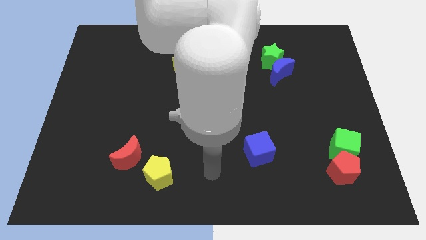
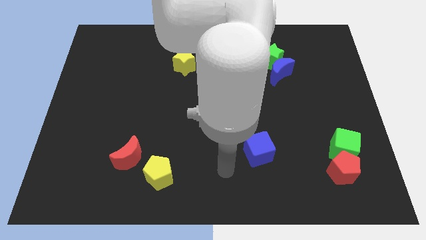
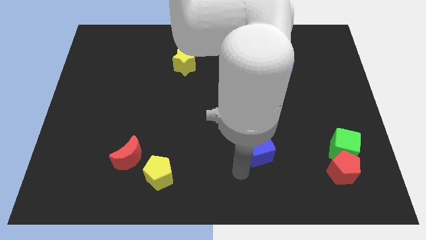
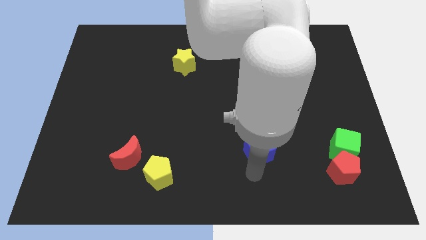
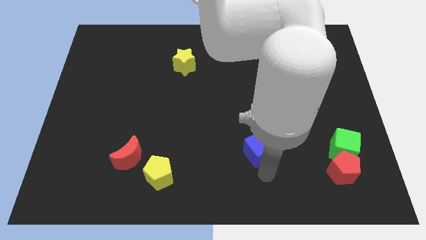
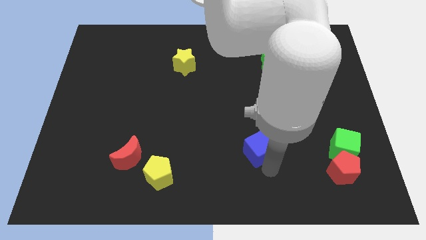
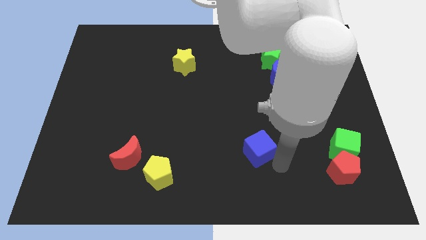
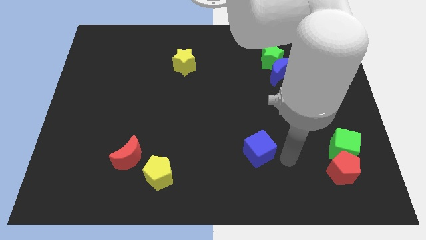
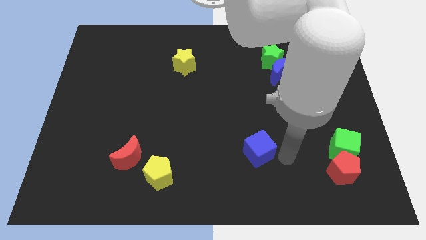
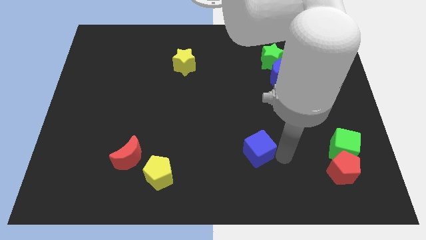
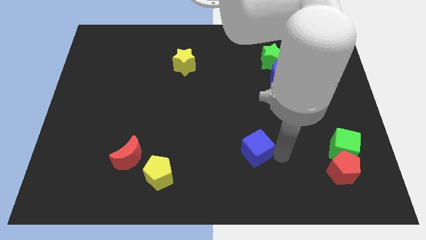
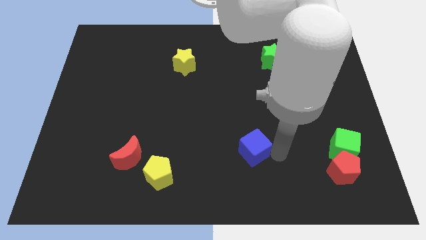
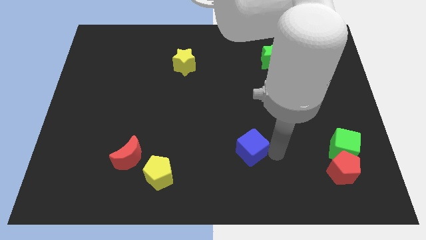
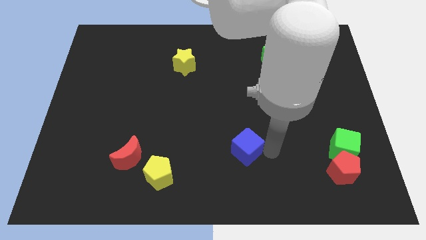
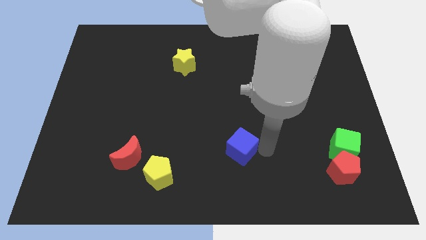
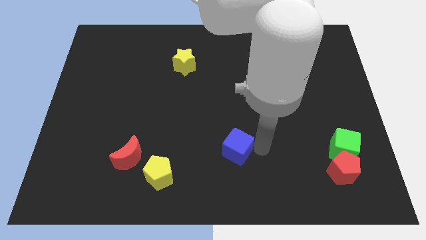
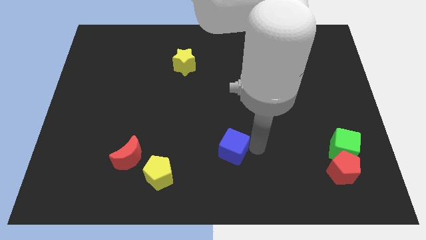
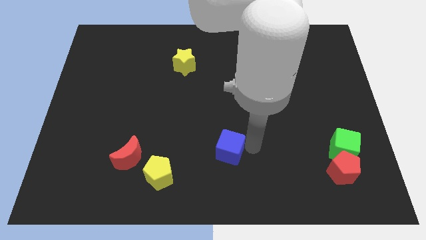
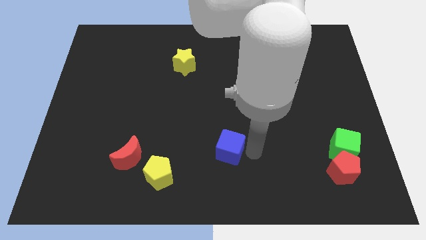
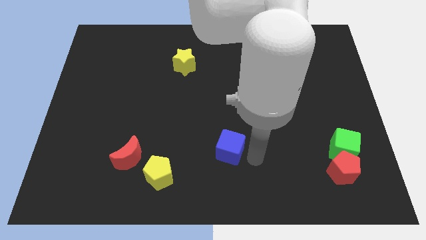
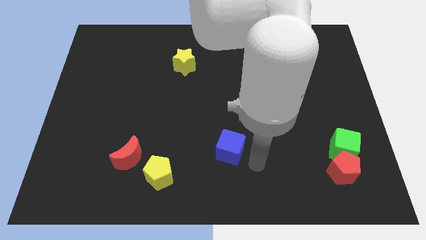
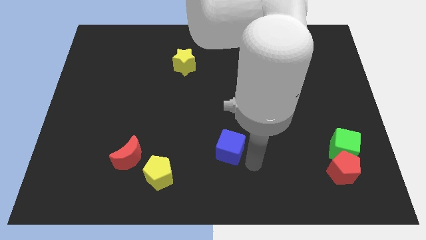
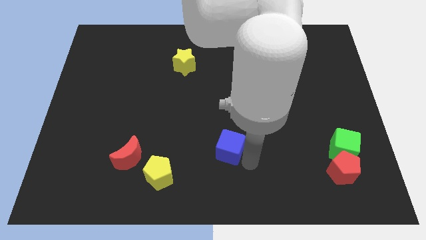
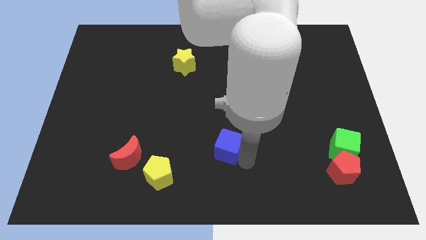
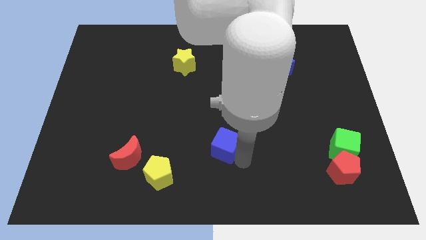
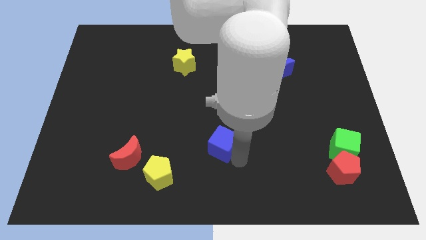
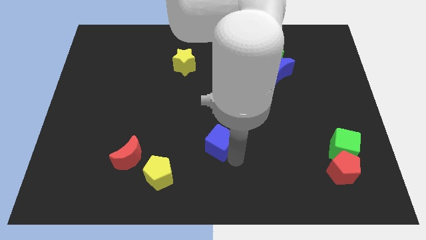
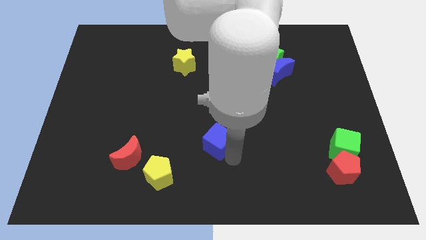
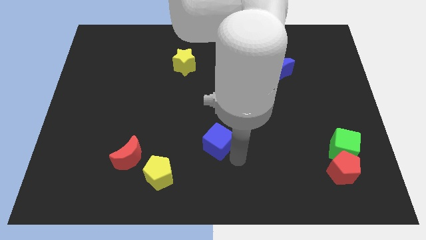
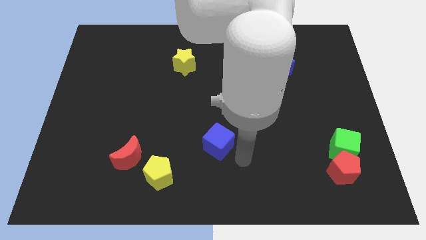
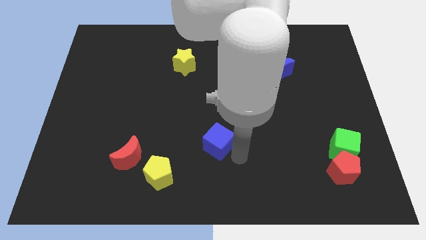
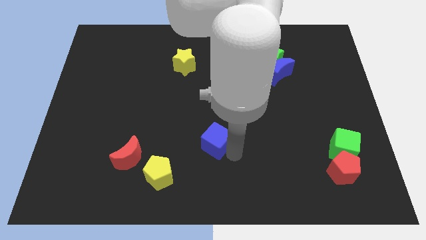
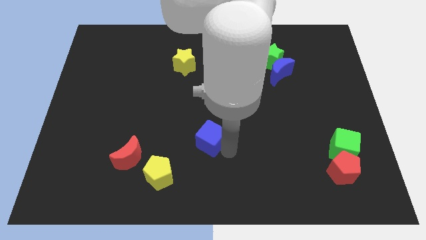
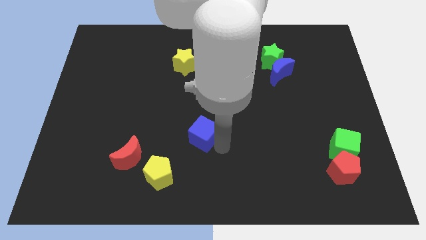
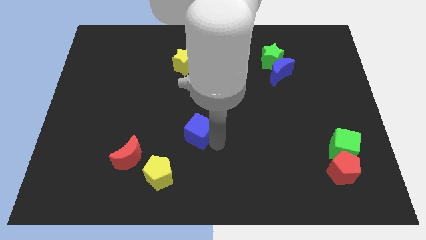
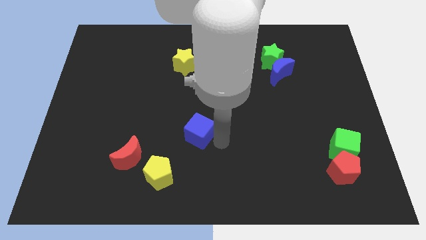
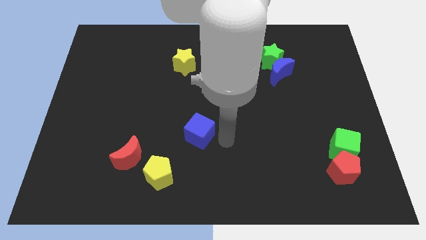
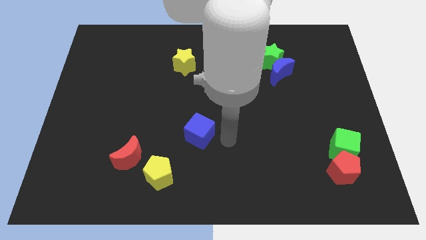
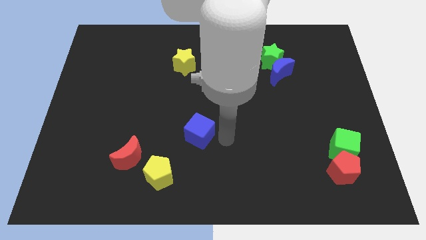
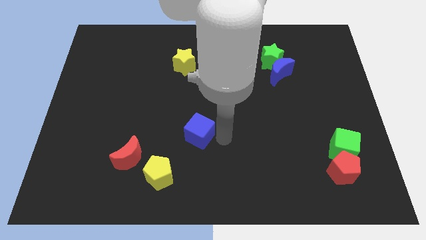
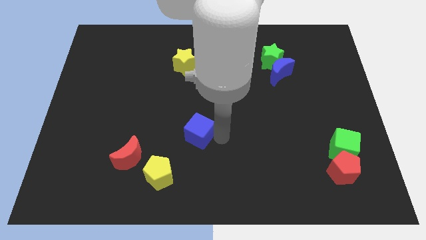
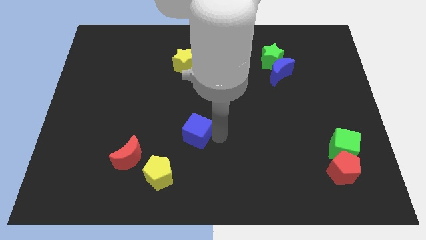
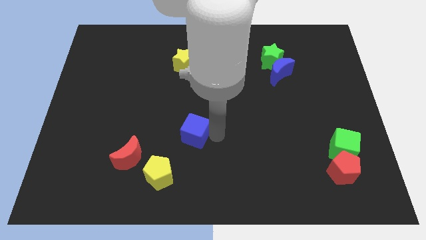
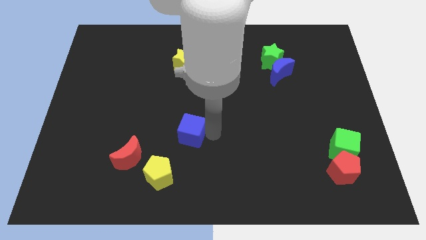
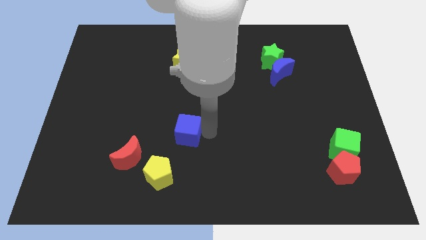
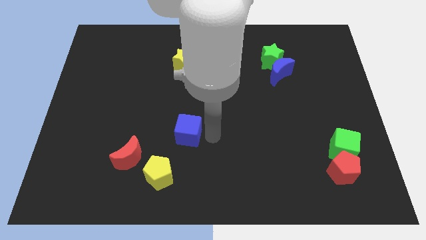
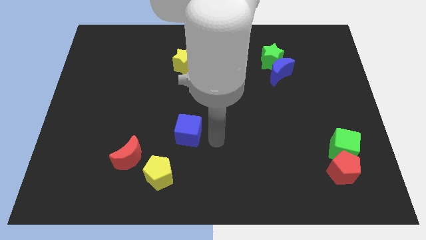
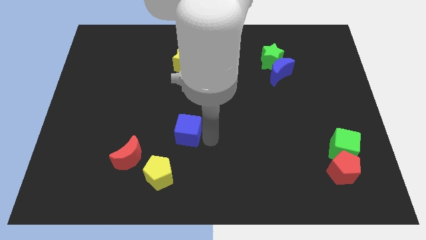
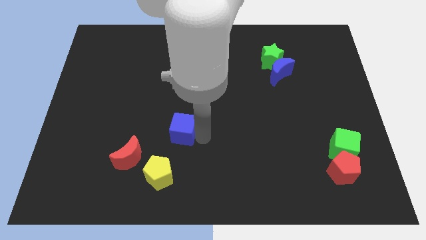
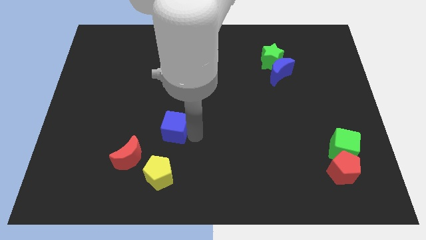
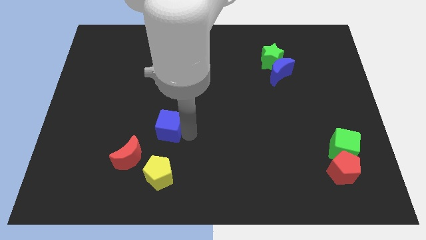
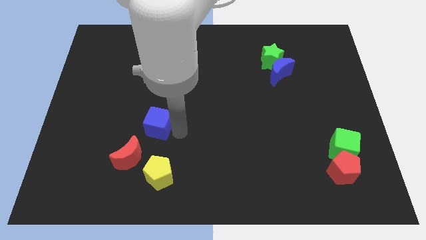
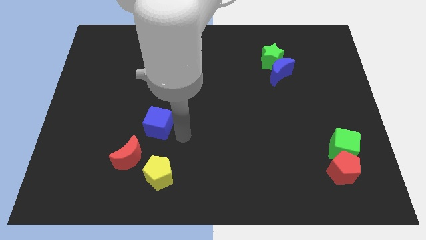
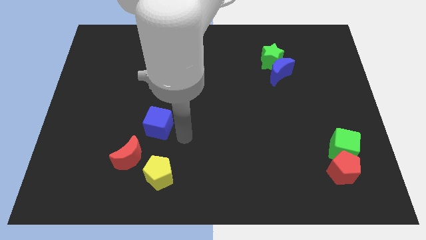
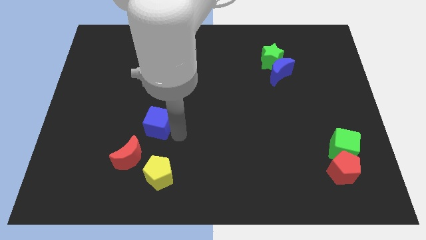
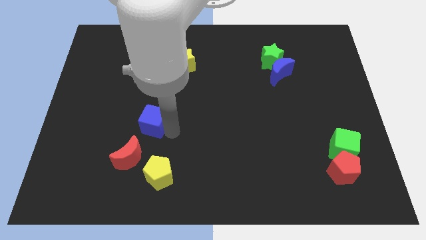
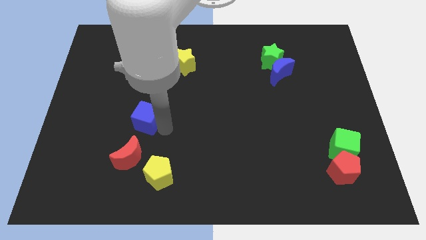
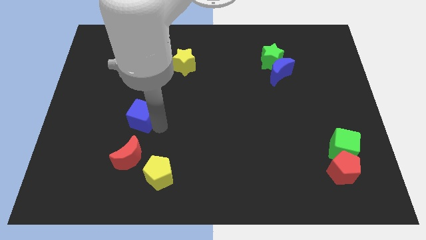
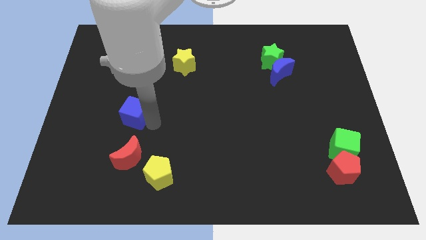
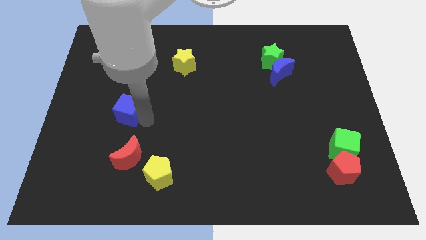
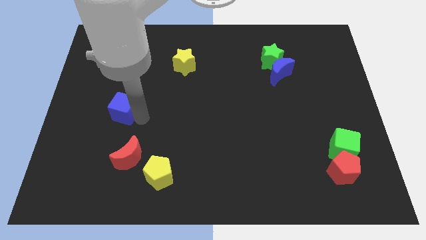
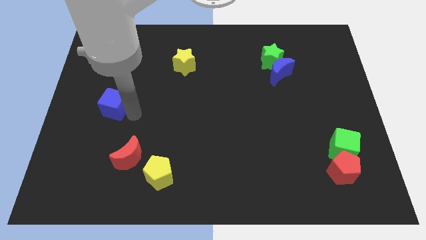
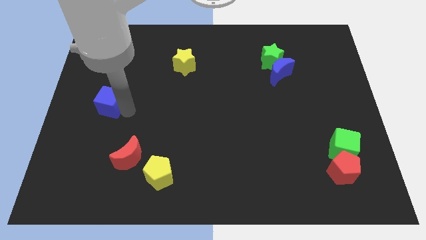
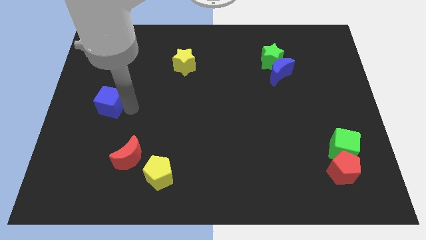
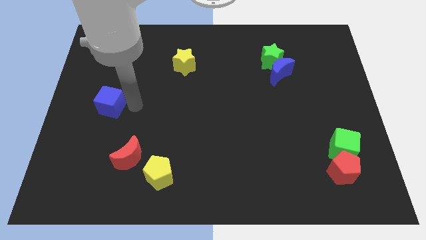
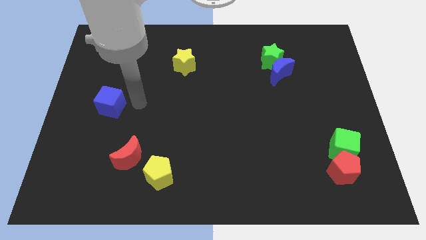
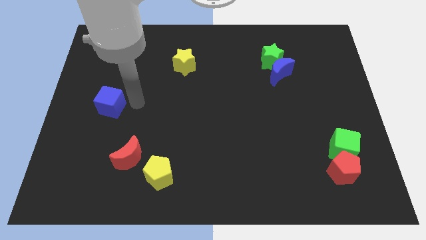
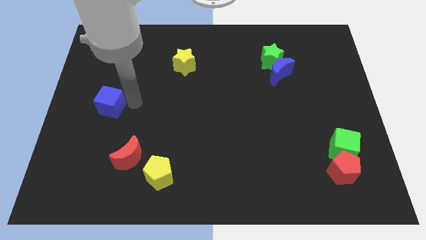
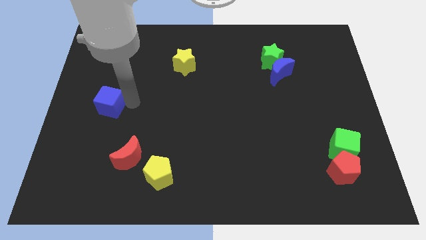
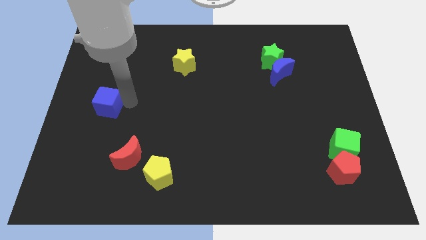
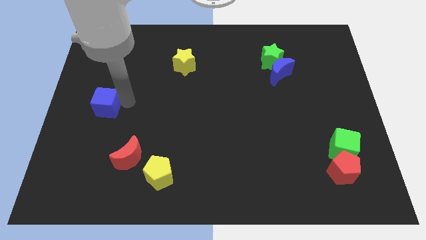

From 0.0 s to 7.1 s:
push the blue cube to the center left
